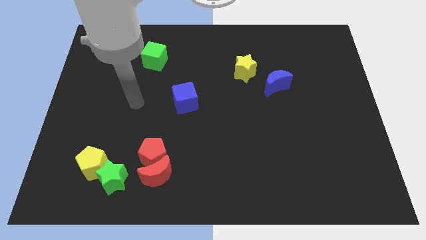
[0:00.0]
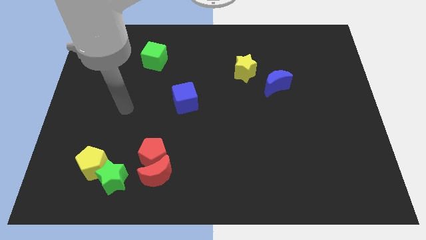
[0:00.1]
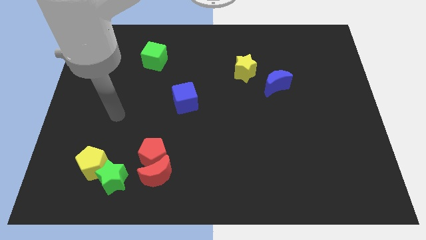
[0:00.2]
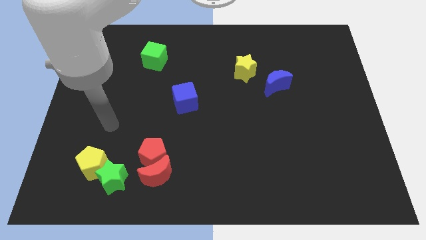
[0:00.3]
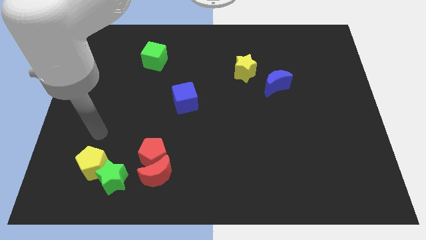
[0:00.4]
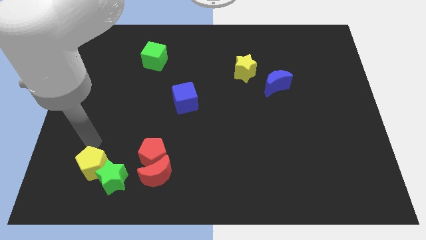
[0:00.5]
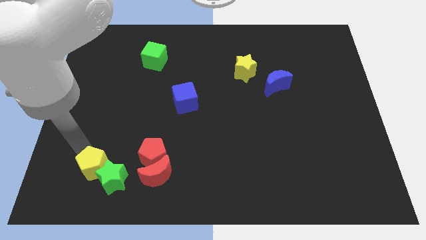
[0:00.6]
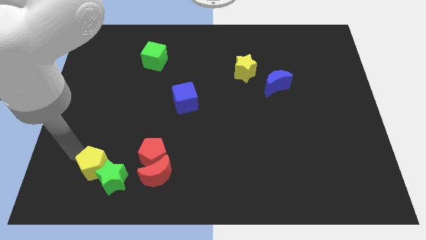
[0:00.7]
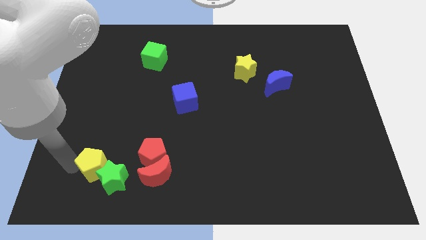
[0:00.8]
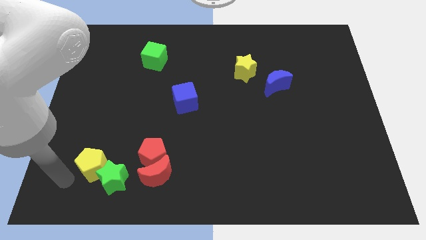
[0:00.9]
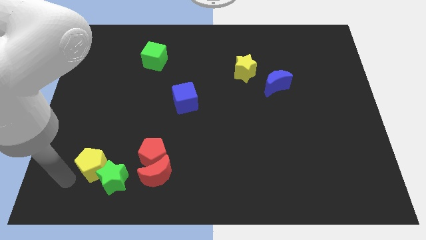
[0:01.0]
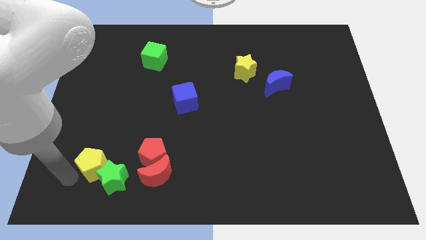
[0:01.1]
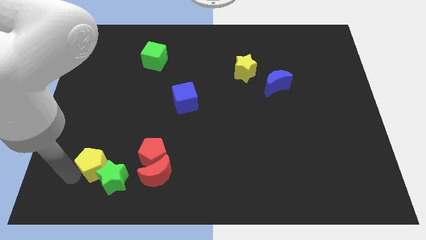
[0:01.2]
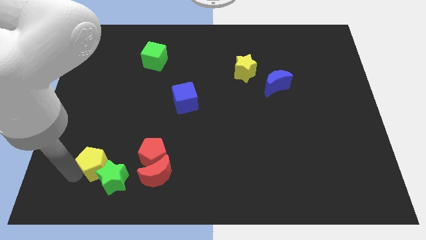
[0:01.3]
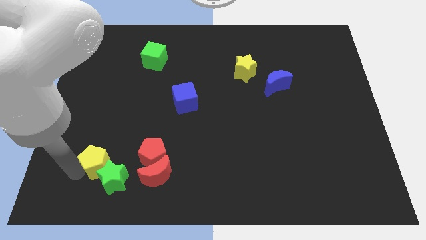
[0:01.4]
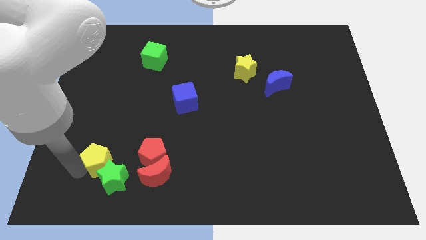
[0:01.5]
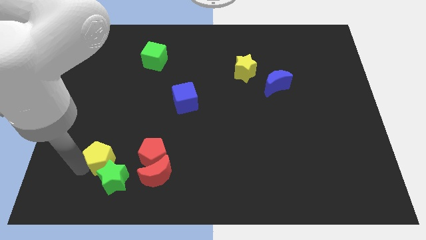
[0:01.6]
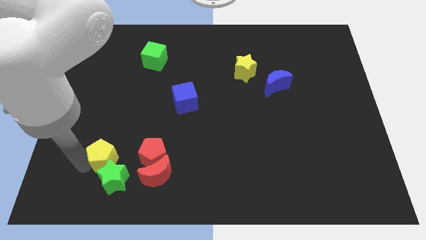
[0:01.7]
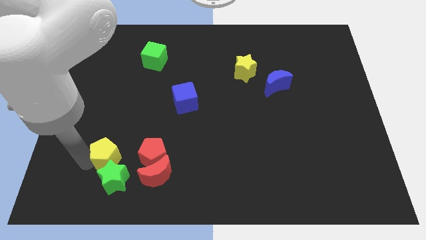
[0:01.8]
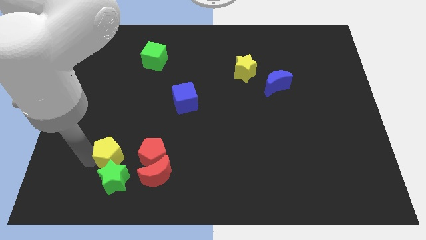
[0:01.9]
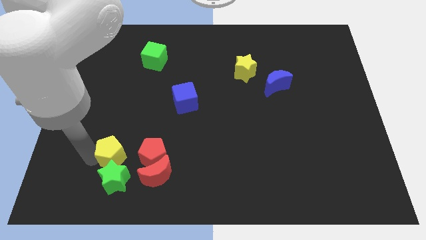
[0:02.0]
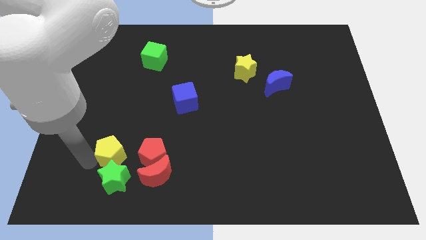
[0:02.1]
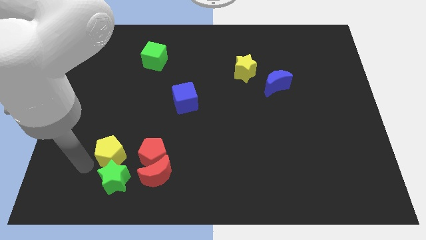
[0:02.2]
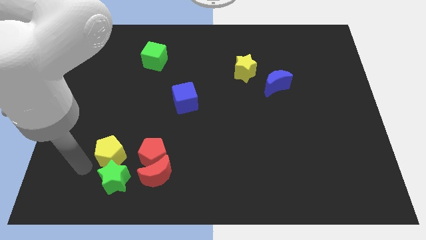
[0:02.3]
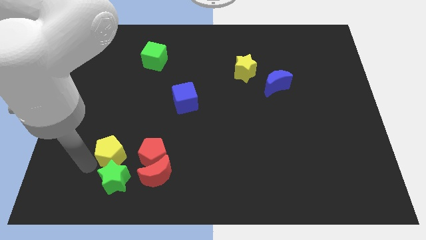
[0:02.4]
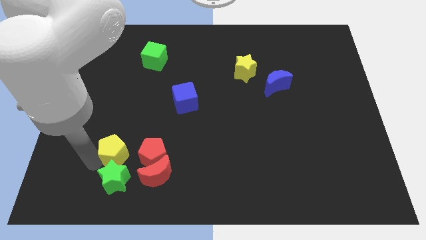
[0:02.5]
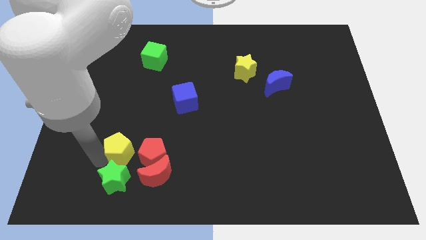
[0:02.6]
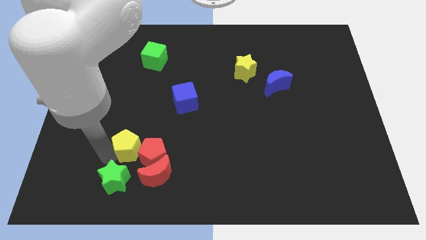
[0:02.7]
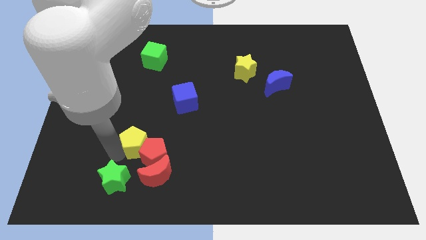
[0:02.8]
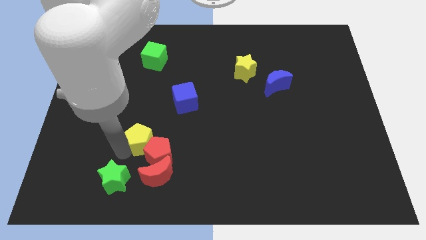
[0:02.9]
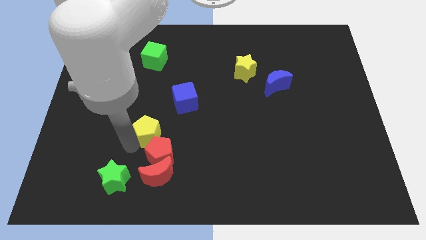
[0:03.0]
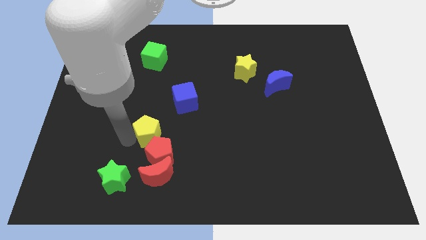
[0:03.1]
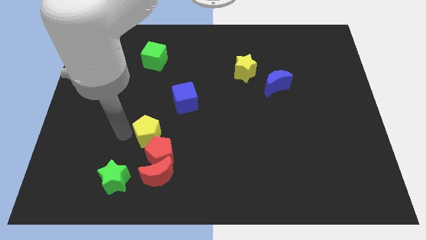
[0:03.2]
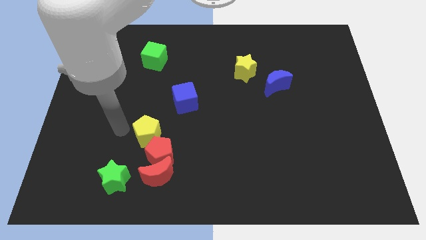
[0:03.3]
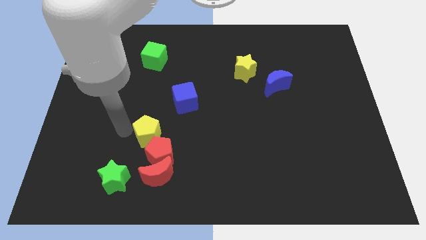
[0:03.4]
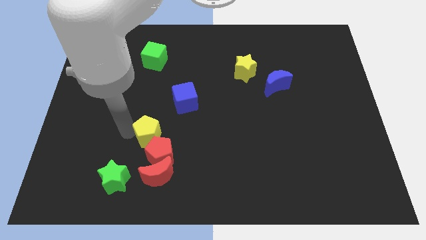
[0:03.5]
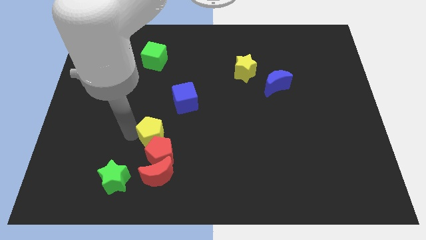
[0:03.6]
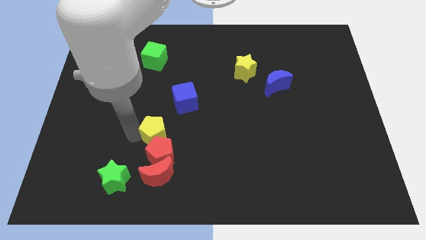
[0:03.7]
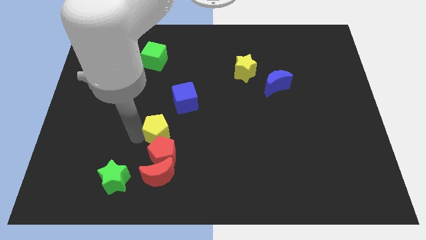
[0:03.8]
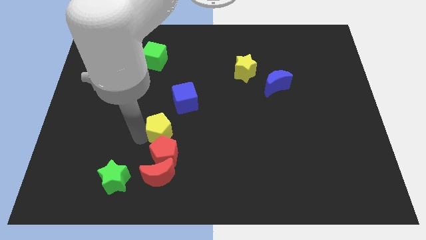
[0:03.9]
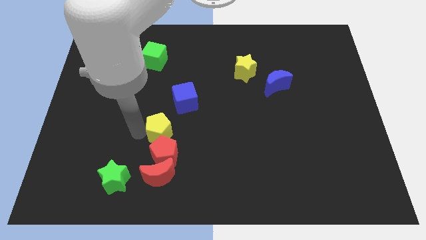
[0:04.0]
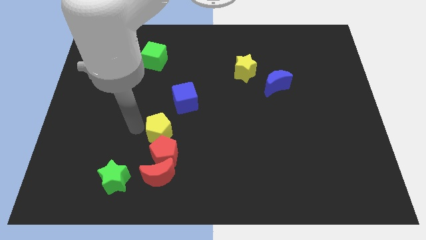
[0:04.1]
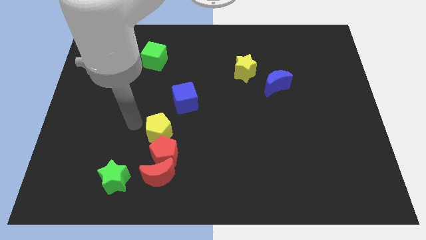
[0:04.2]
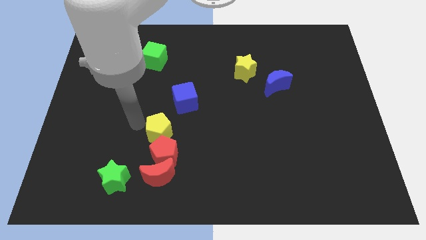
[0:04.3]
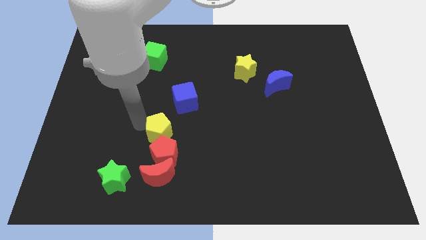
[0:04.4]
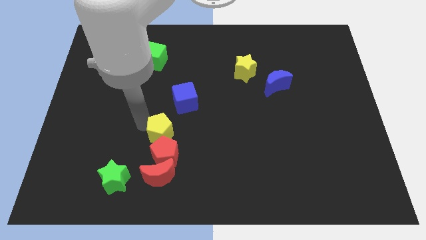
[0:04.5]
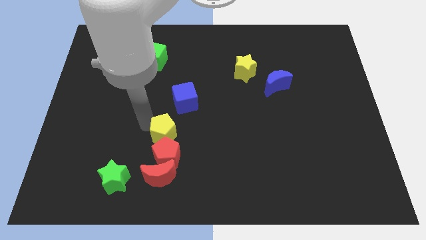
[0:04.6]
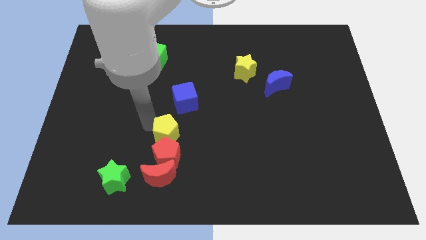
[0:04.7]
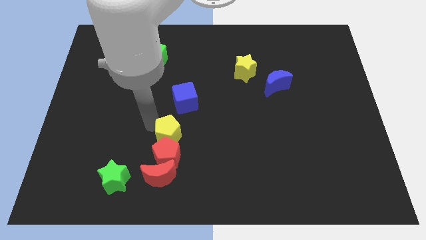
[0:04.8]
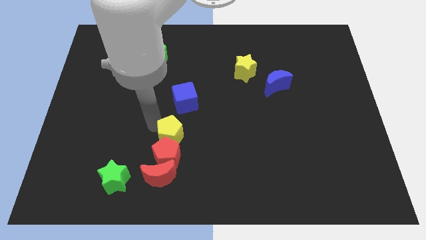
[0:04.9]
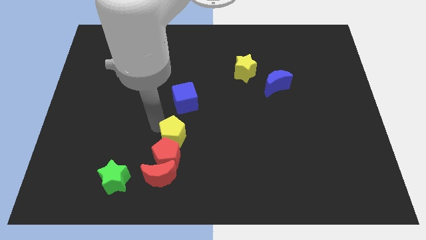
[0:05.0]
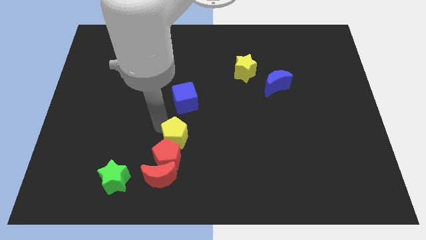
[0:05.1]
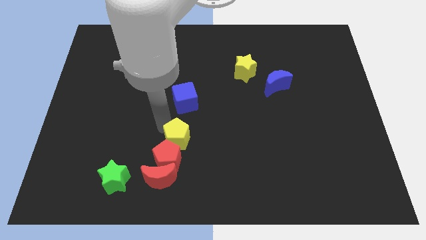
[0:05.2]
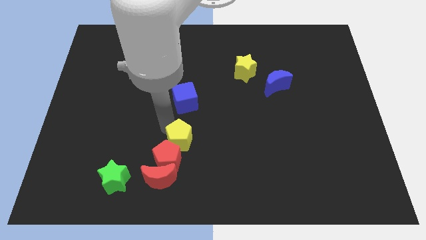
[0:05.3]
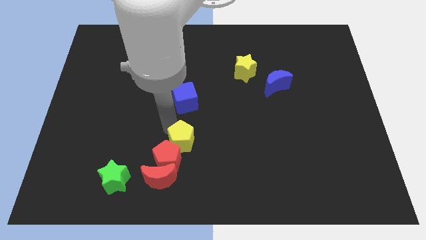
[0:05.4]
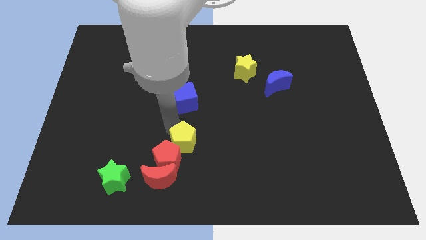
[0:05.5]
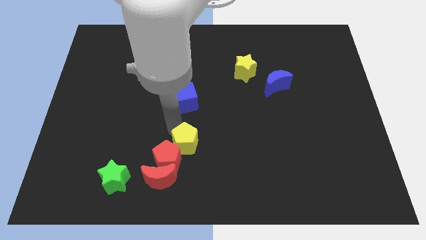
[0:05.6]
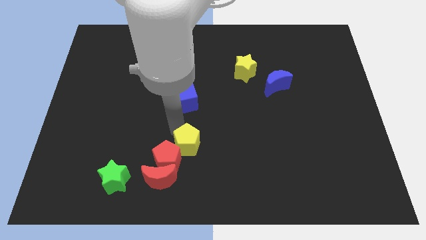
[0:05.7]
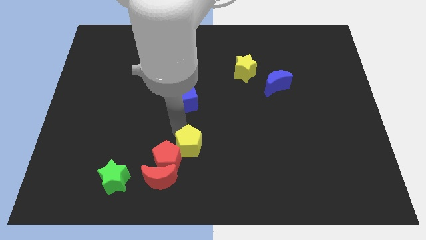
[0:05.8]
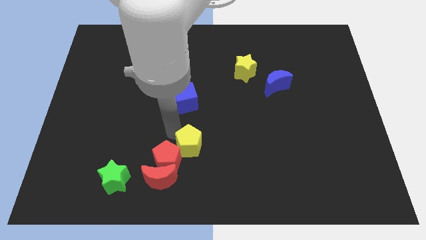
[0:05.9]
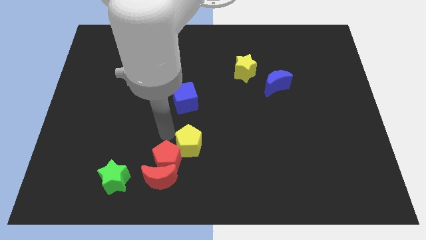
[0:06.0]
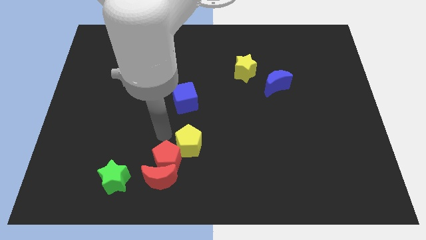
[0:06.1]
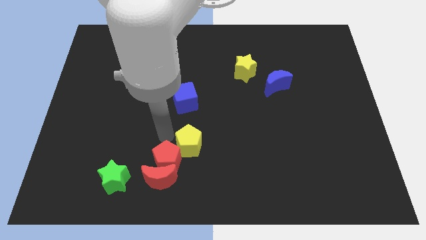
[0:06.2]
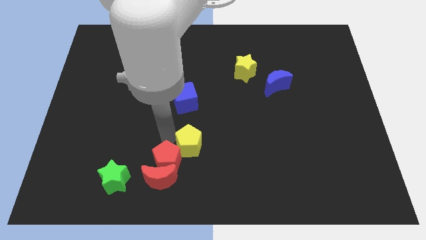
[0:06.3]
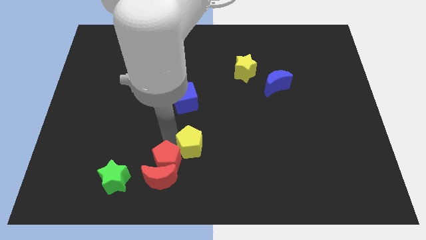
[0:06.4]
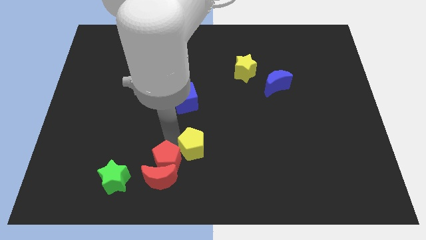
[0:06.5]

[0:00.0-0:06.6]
slide the yellow pentagon right

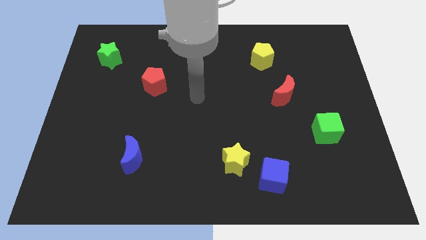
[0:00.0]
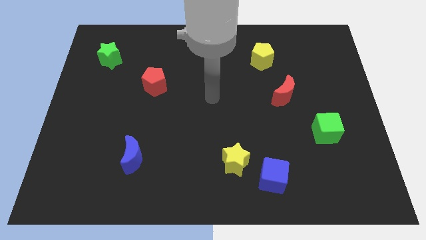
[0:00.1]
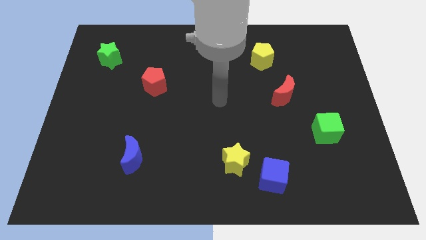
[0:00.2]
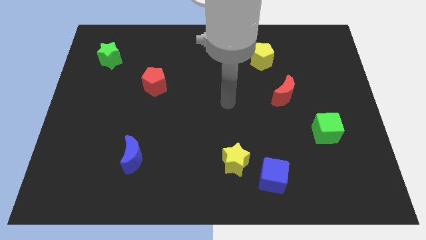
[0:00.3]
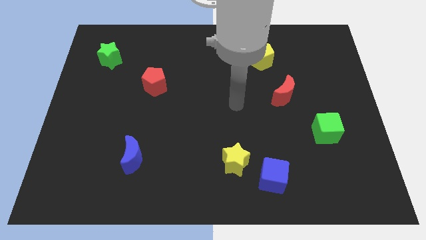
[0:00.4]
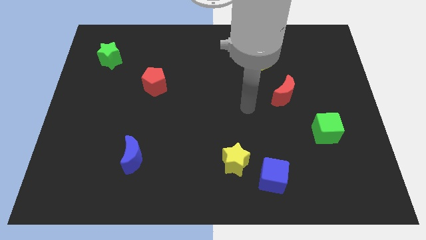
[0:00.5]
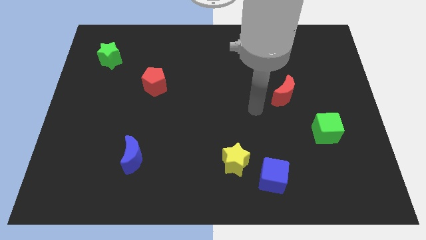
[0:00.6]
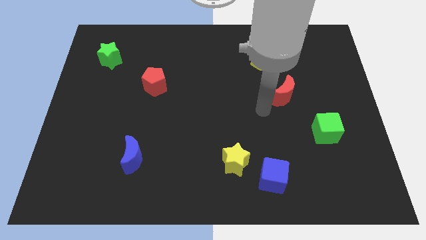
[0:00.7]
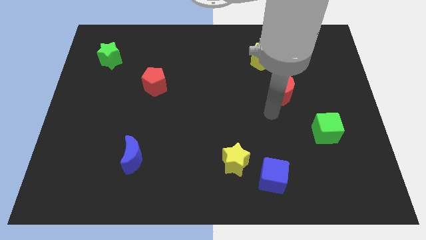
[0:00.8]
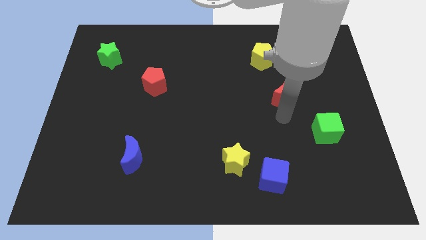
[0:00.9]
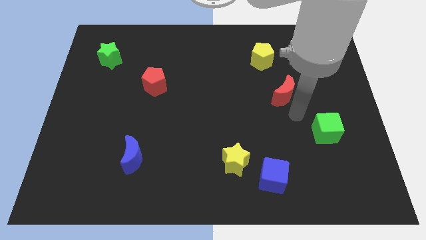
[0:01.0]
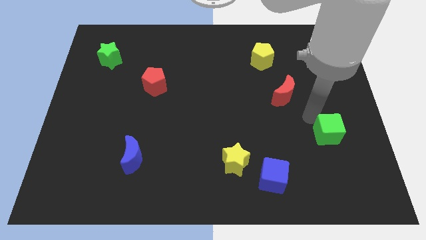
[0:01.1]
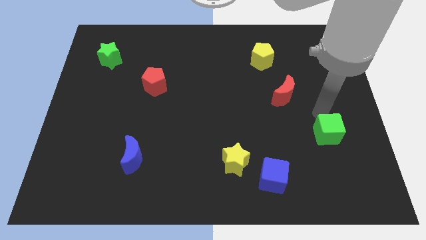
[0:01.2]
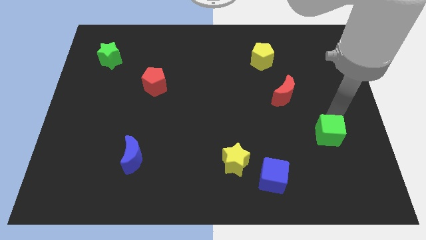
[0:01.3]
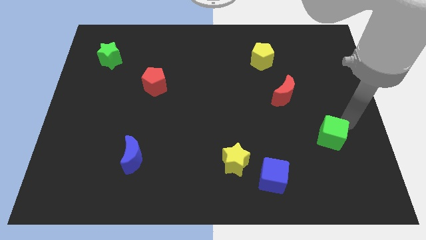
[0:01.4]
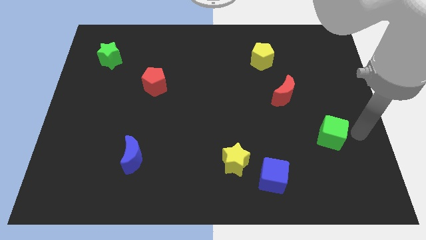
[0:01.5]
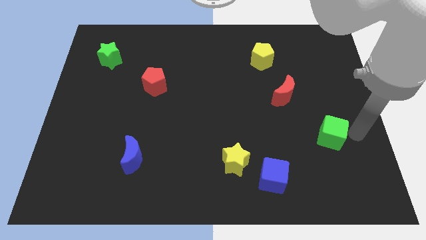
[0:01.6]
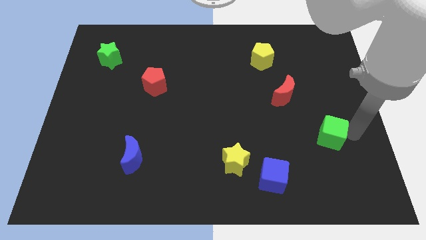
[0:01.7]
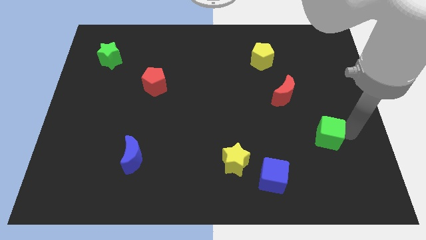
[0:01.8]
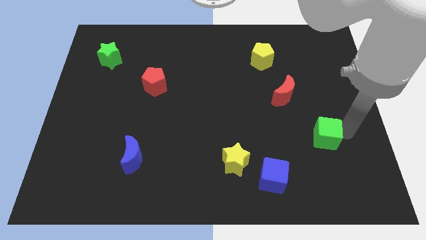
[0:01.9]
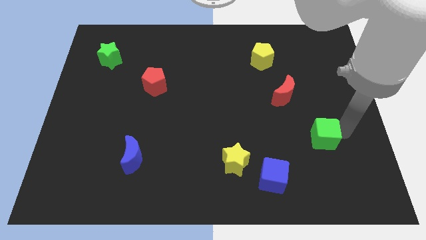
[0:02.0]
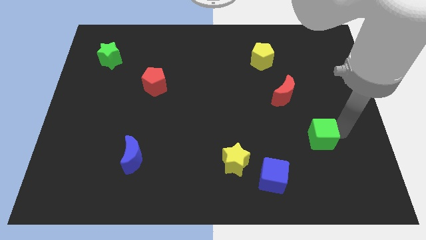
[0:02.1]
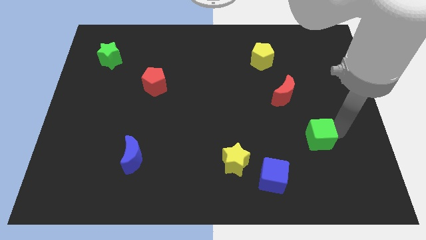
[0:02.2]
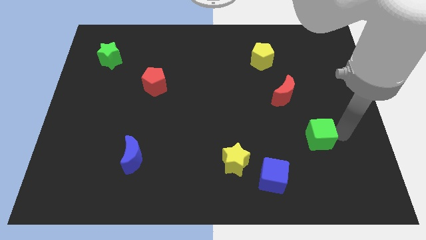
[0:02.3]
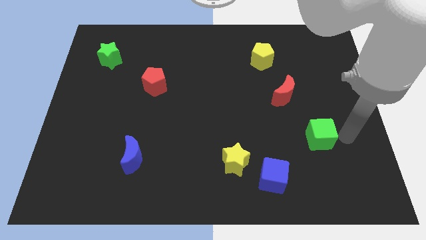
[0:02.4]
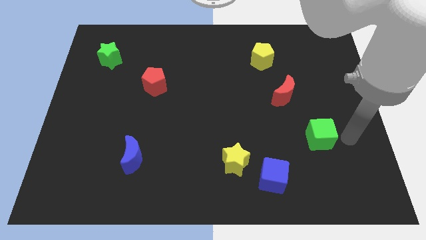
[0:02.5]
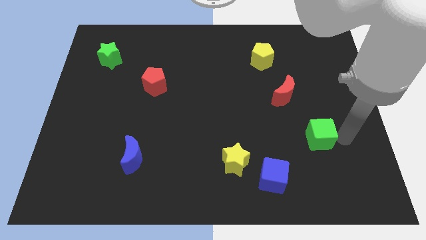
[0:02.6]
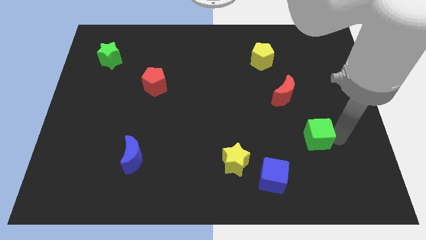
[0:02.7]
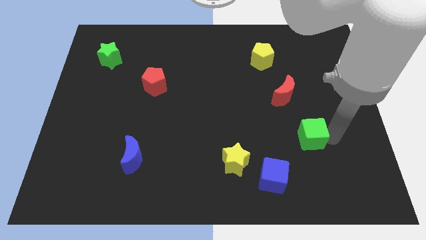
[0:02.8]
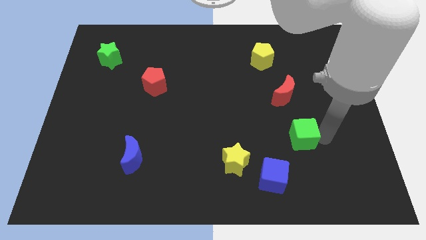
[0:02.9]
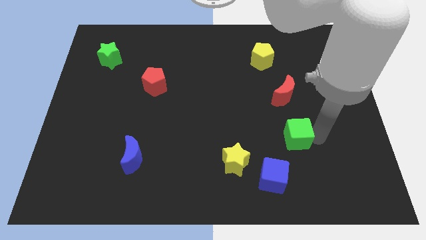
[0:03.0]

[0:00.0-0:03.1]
slightly push the green cube to the left
